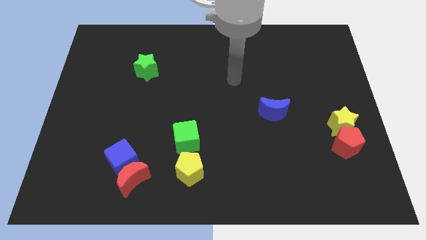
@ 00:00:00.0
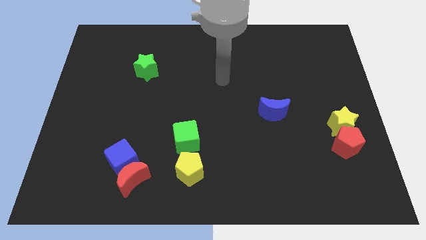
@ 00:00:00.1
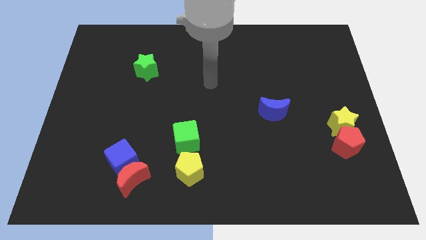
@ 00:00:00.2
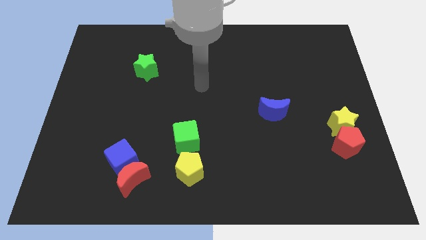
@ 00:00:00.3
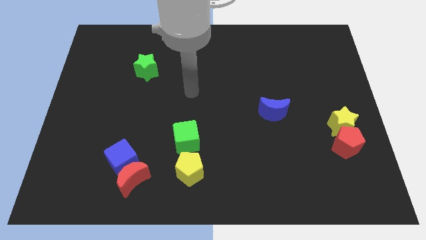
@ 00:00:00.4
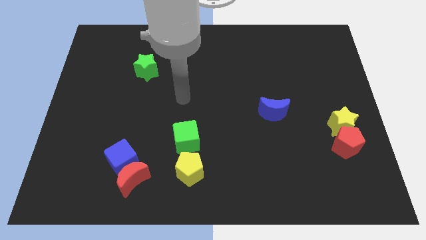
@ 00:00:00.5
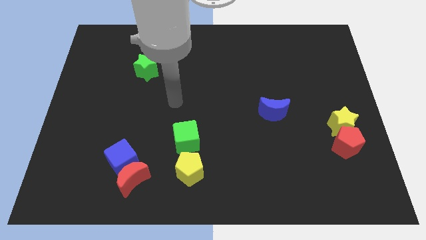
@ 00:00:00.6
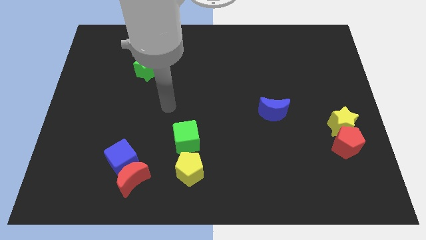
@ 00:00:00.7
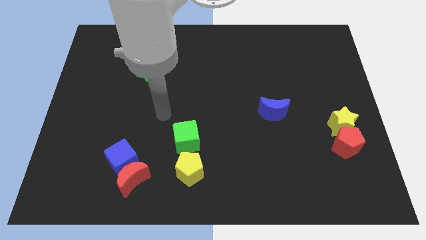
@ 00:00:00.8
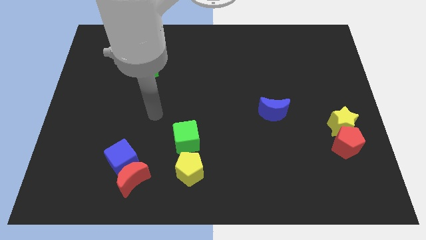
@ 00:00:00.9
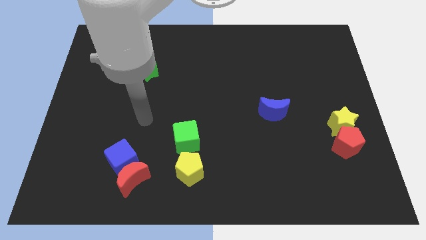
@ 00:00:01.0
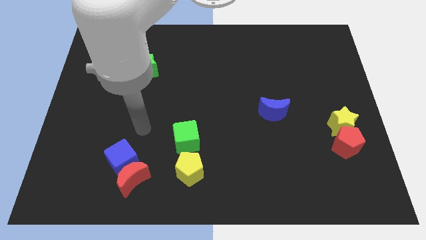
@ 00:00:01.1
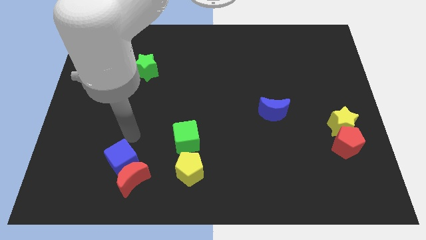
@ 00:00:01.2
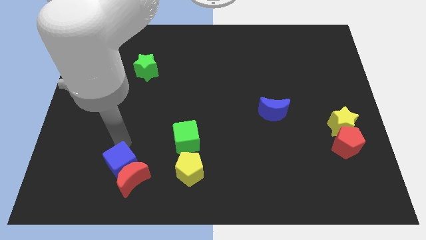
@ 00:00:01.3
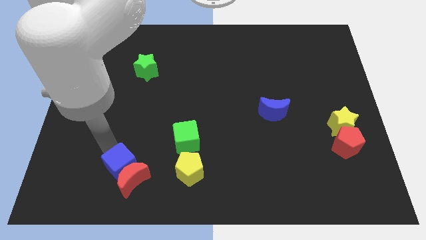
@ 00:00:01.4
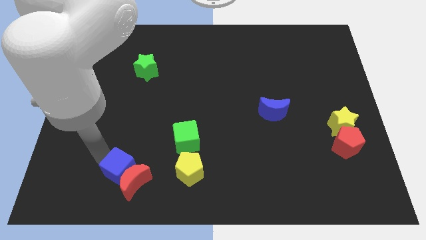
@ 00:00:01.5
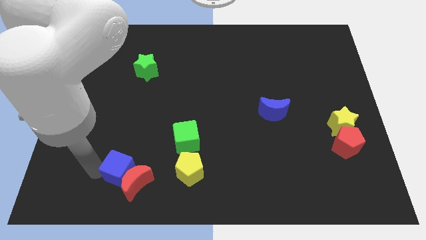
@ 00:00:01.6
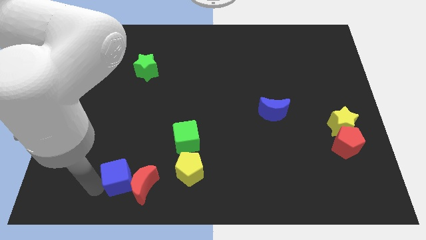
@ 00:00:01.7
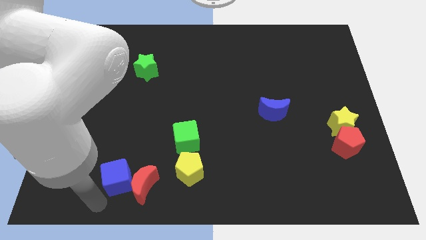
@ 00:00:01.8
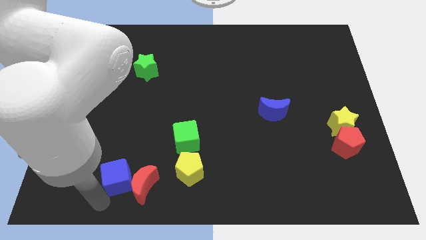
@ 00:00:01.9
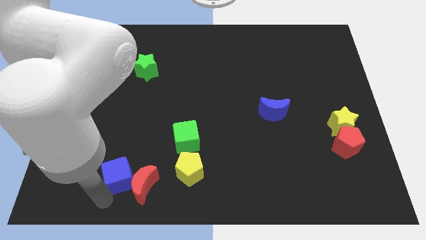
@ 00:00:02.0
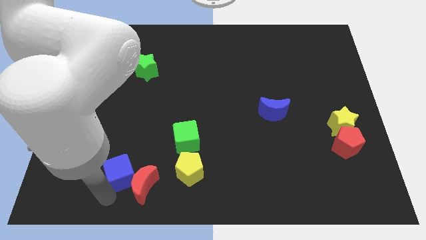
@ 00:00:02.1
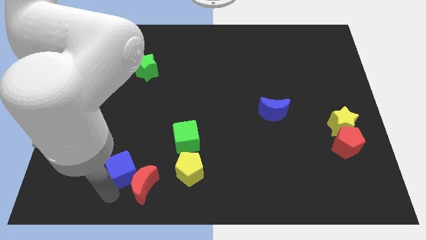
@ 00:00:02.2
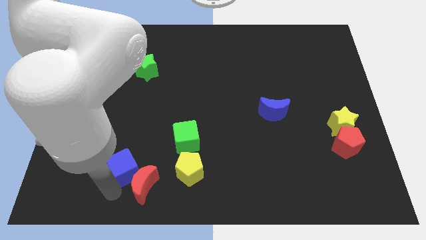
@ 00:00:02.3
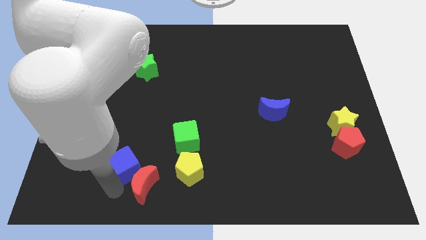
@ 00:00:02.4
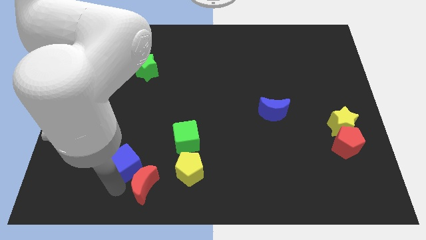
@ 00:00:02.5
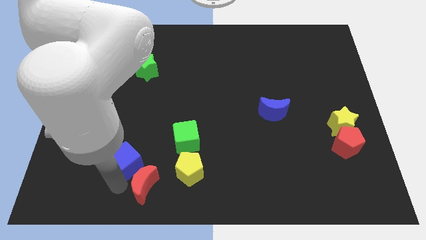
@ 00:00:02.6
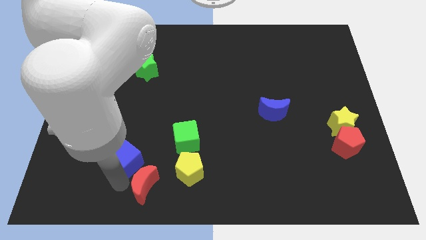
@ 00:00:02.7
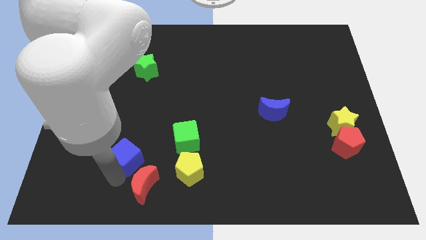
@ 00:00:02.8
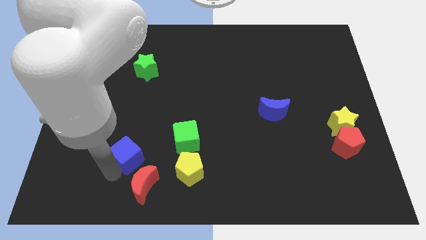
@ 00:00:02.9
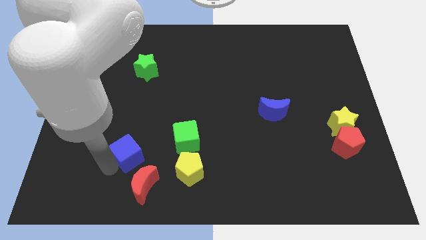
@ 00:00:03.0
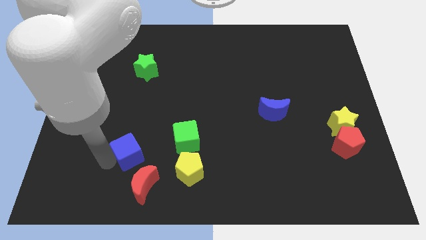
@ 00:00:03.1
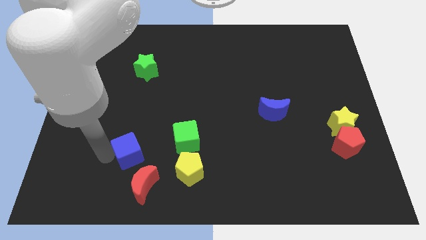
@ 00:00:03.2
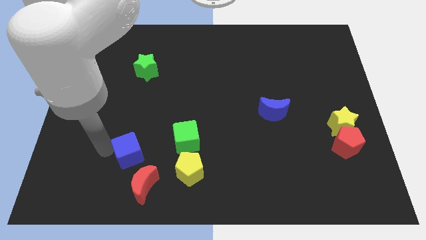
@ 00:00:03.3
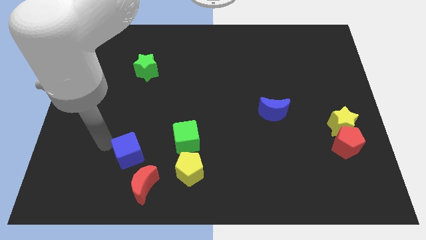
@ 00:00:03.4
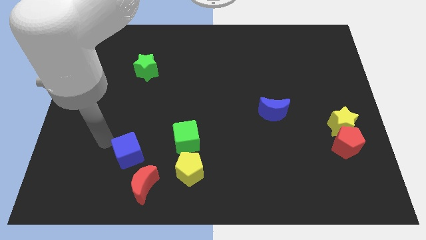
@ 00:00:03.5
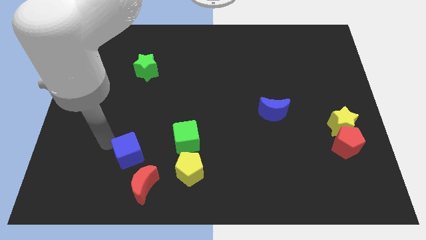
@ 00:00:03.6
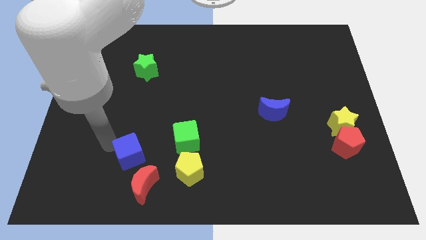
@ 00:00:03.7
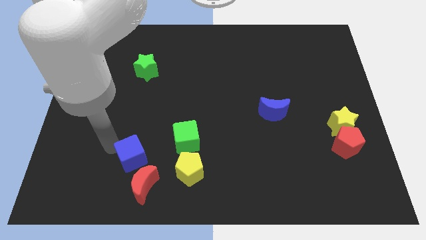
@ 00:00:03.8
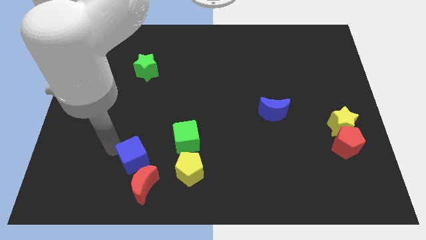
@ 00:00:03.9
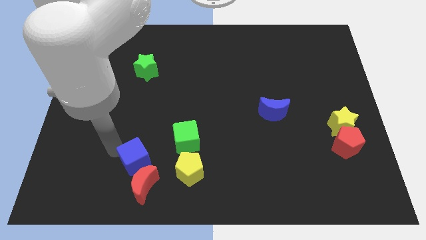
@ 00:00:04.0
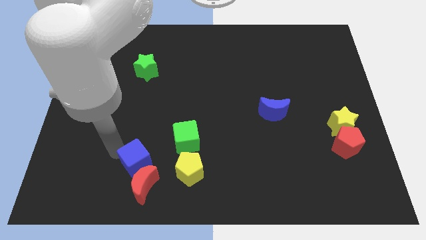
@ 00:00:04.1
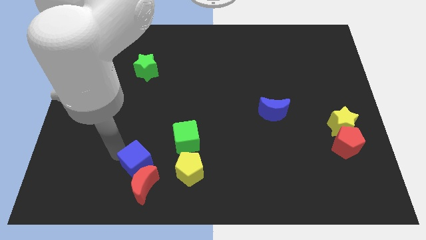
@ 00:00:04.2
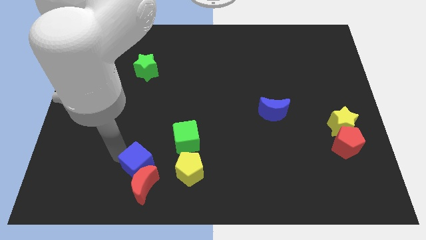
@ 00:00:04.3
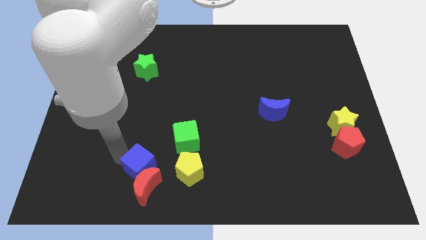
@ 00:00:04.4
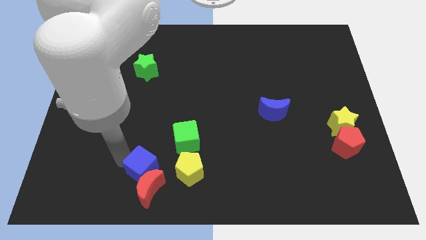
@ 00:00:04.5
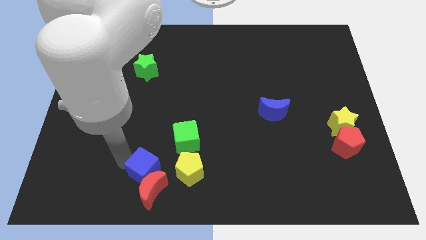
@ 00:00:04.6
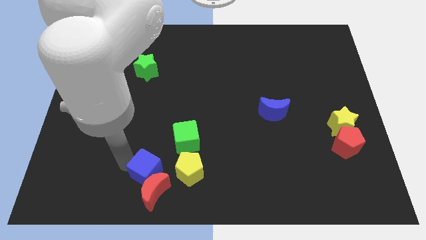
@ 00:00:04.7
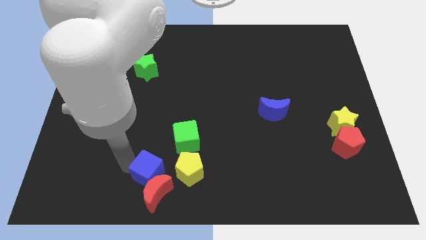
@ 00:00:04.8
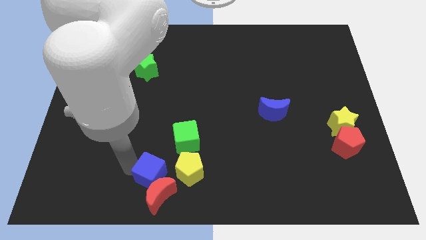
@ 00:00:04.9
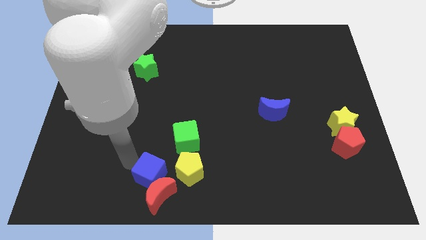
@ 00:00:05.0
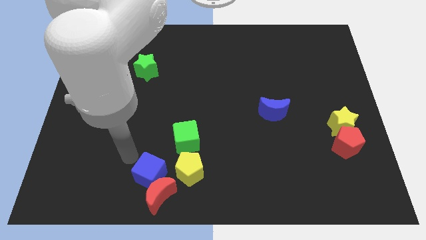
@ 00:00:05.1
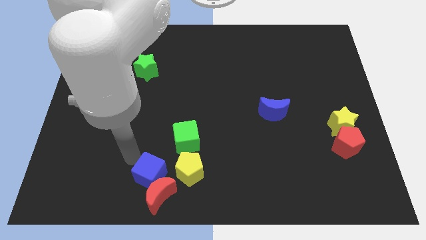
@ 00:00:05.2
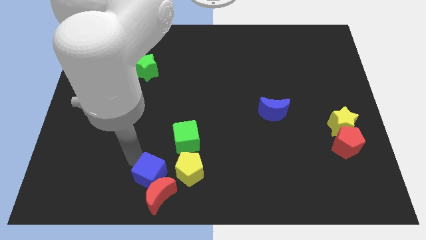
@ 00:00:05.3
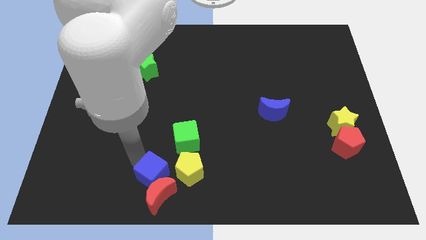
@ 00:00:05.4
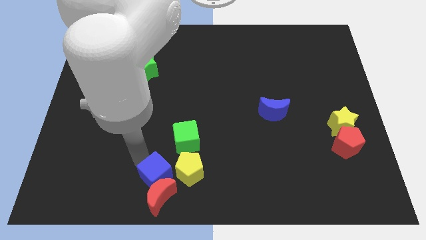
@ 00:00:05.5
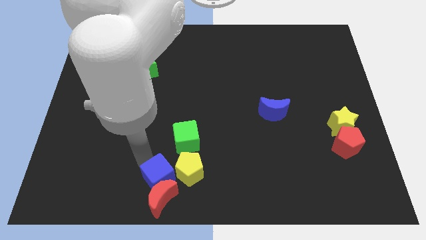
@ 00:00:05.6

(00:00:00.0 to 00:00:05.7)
move the blue cube to the bottom

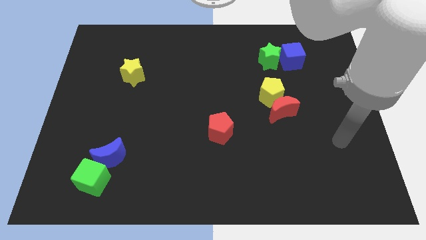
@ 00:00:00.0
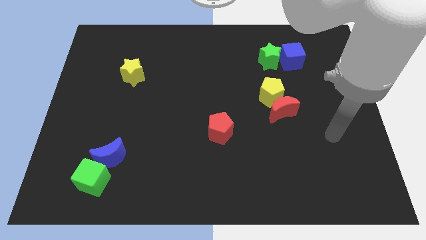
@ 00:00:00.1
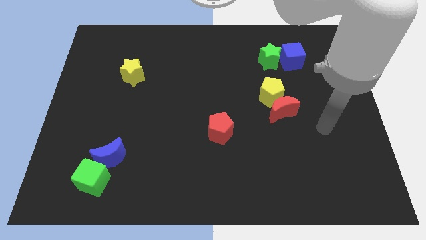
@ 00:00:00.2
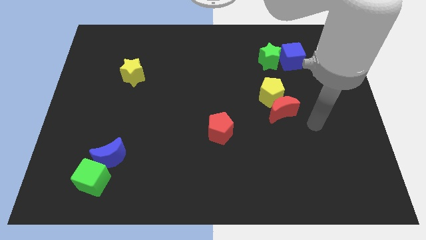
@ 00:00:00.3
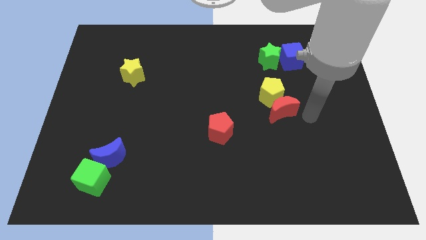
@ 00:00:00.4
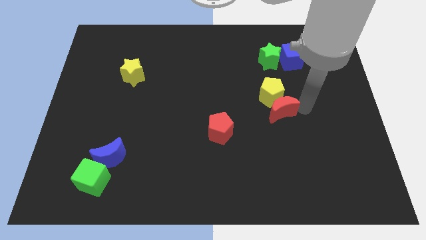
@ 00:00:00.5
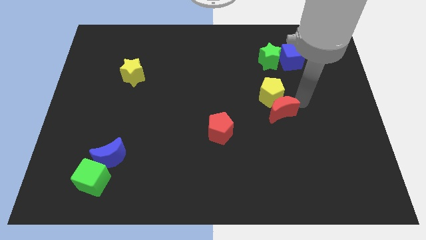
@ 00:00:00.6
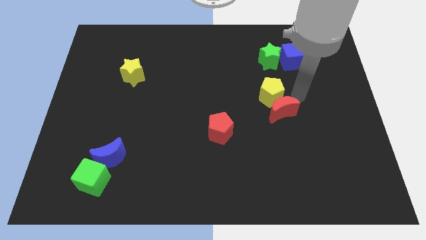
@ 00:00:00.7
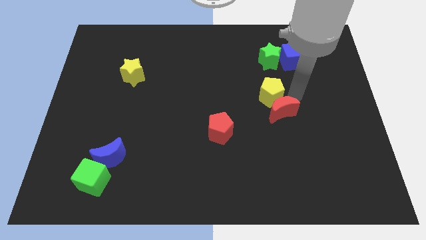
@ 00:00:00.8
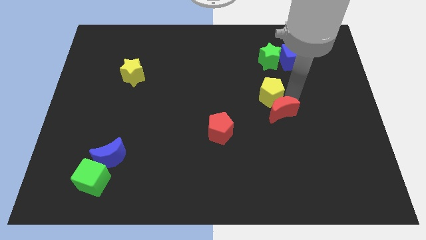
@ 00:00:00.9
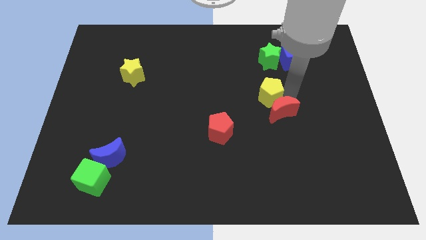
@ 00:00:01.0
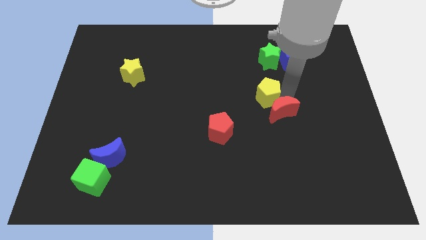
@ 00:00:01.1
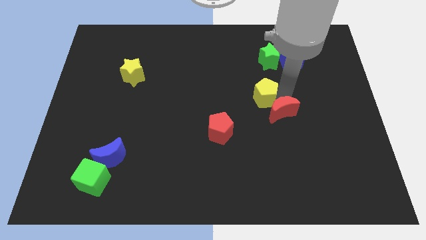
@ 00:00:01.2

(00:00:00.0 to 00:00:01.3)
slide the yellow pentagon to the middle of the board
